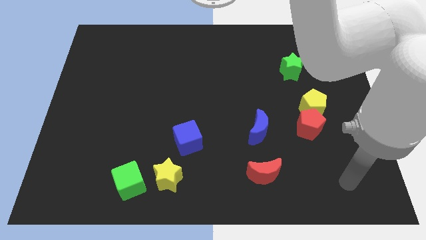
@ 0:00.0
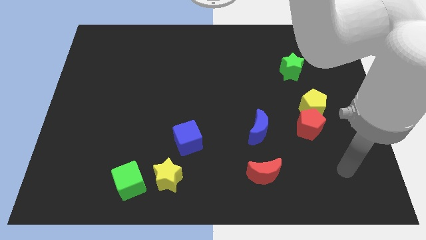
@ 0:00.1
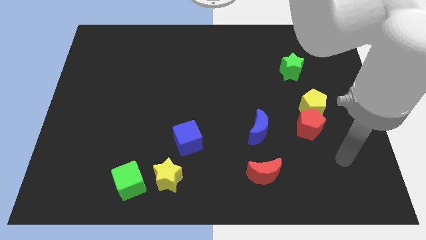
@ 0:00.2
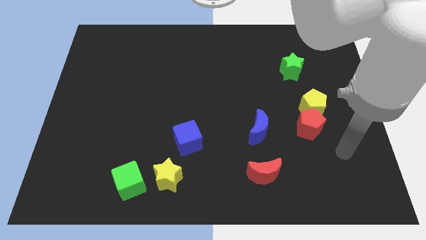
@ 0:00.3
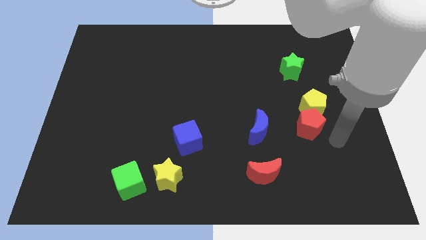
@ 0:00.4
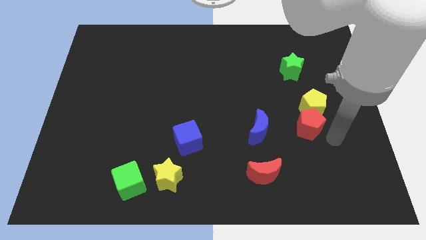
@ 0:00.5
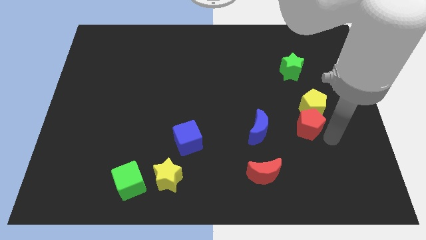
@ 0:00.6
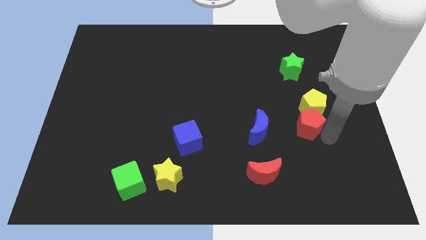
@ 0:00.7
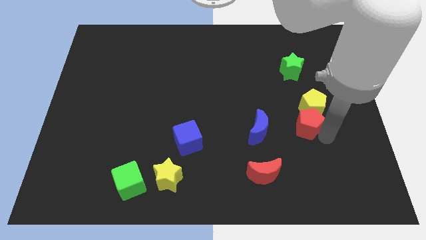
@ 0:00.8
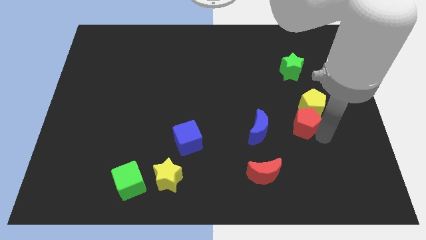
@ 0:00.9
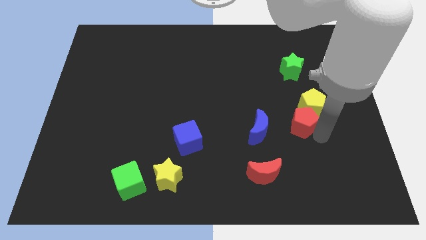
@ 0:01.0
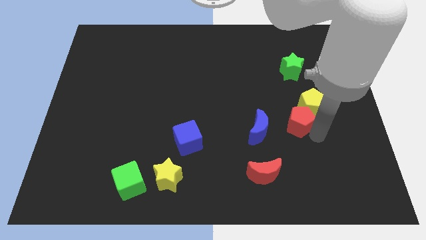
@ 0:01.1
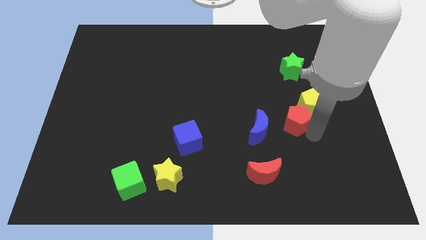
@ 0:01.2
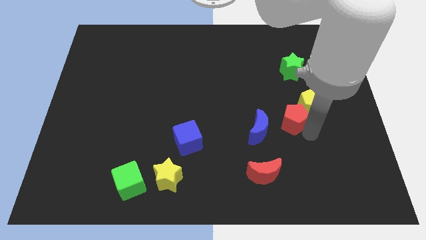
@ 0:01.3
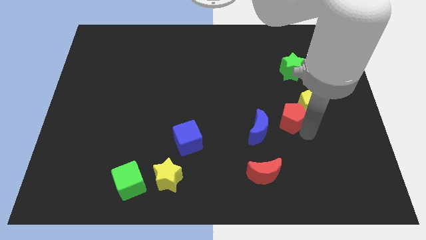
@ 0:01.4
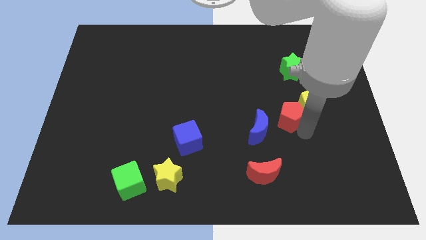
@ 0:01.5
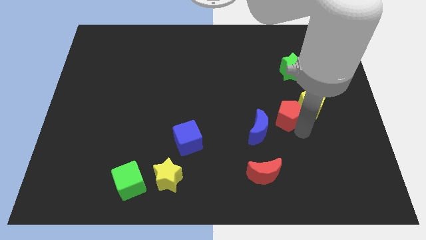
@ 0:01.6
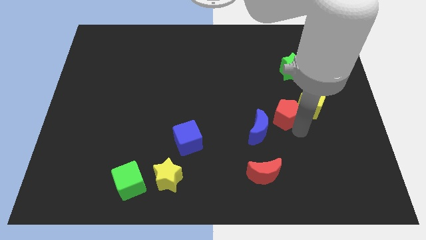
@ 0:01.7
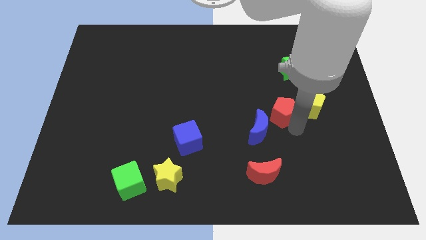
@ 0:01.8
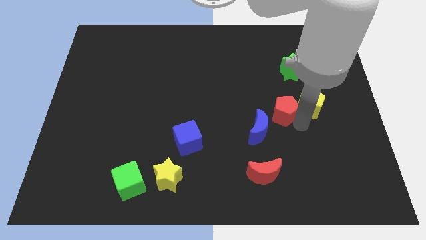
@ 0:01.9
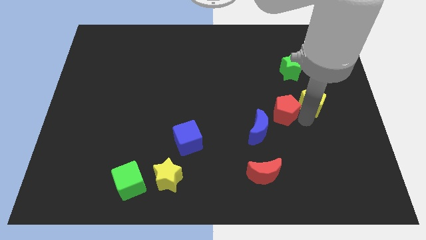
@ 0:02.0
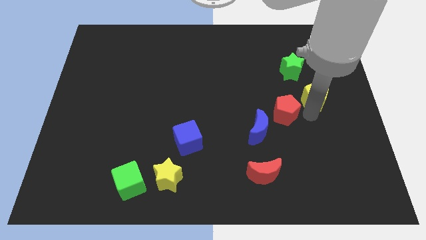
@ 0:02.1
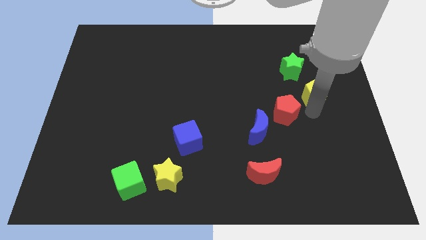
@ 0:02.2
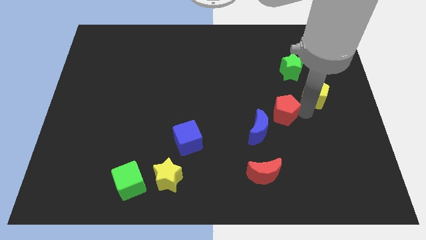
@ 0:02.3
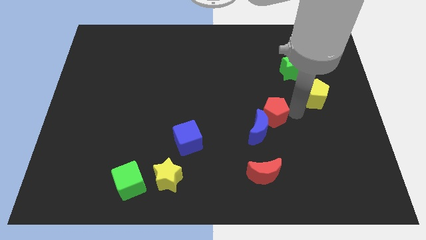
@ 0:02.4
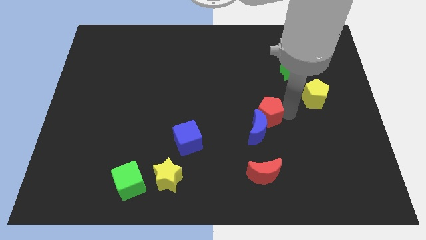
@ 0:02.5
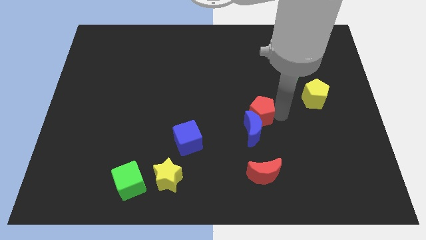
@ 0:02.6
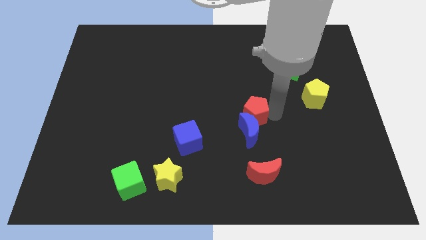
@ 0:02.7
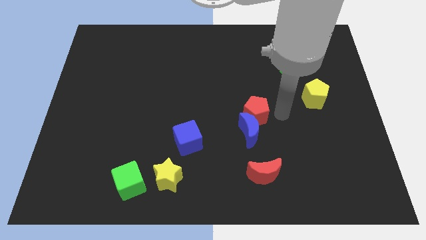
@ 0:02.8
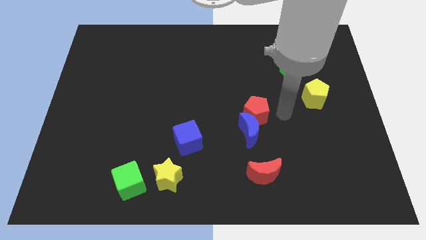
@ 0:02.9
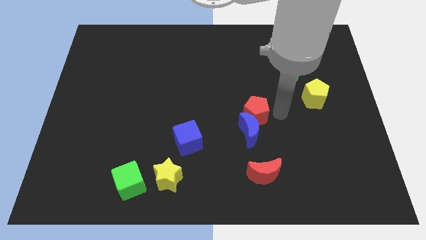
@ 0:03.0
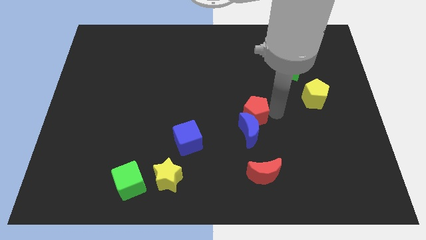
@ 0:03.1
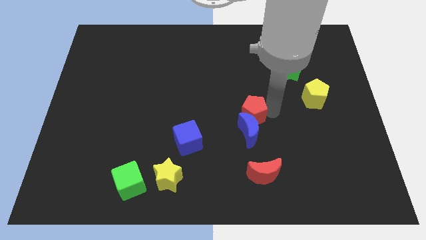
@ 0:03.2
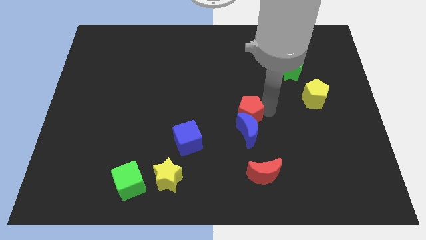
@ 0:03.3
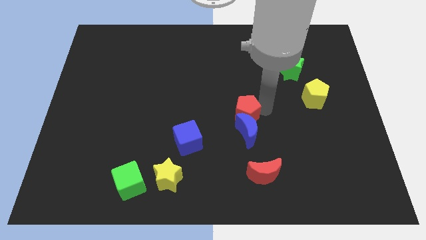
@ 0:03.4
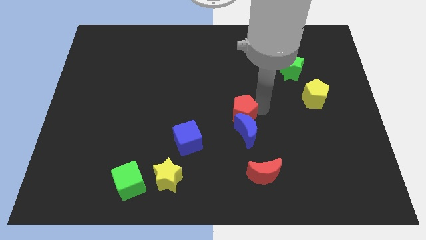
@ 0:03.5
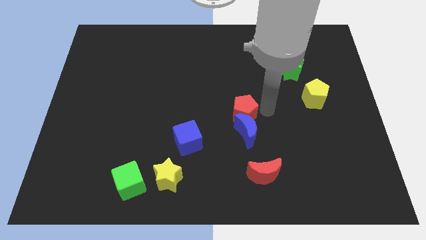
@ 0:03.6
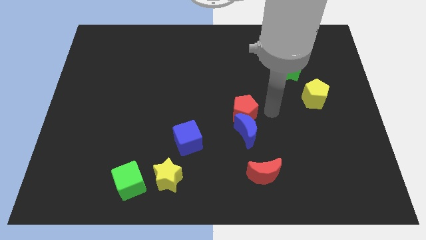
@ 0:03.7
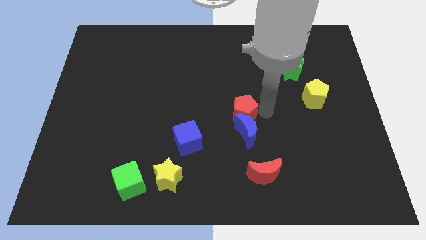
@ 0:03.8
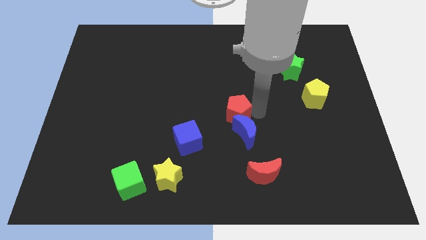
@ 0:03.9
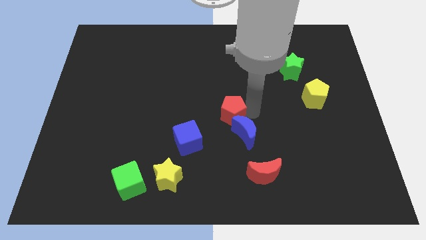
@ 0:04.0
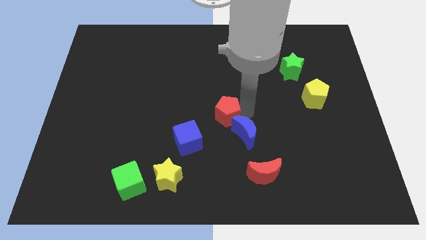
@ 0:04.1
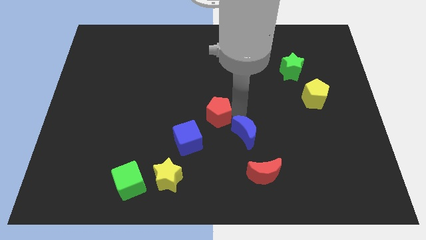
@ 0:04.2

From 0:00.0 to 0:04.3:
move the red pentagon left

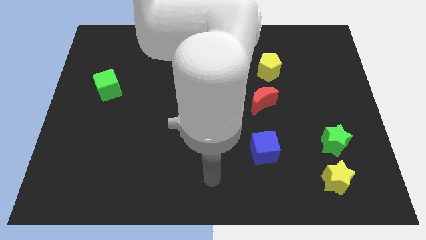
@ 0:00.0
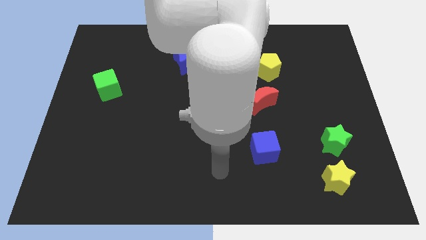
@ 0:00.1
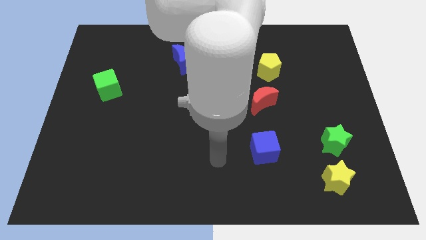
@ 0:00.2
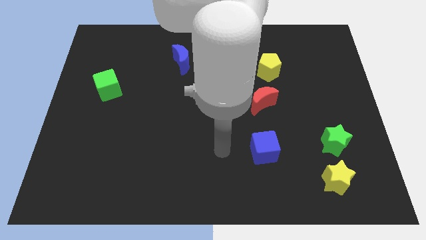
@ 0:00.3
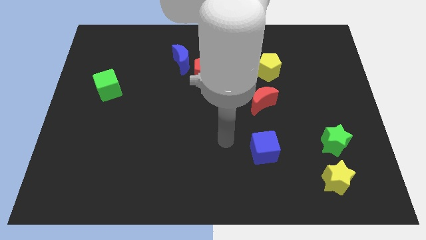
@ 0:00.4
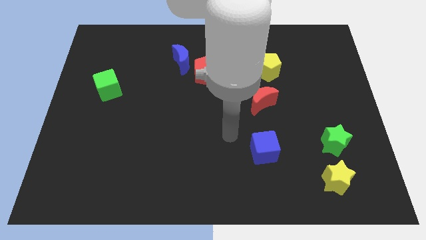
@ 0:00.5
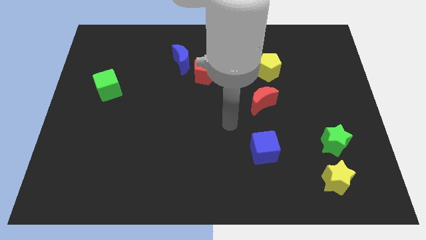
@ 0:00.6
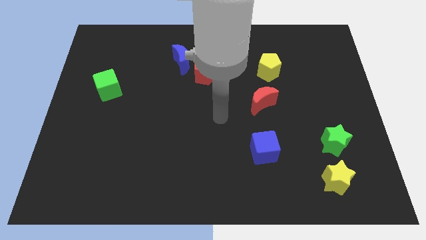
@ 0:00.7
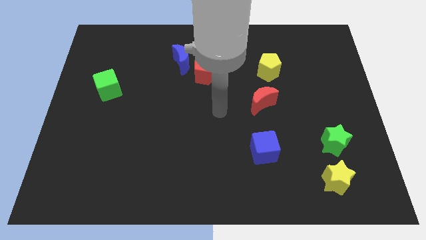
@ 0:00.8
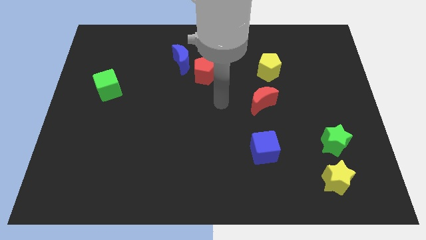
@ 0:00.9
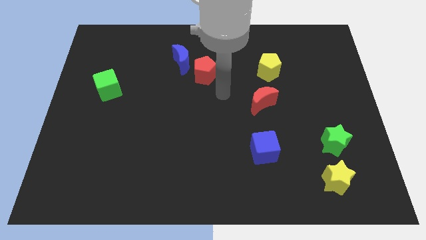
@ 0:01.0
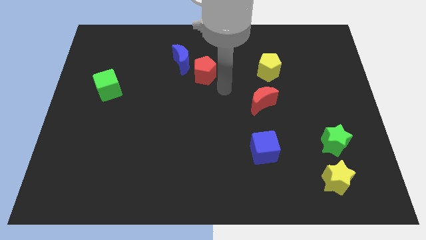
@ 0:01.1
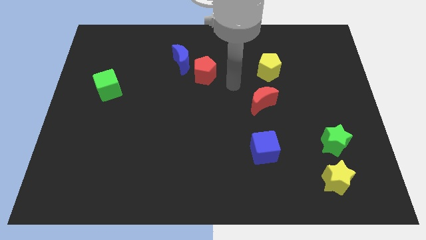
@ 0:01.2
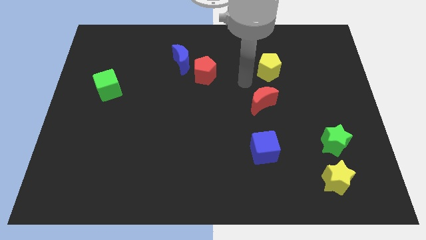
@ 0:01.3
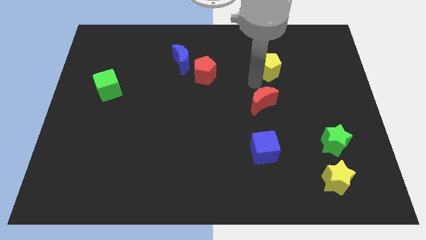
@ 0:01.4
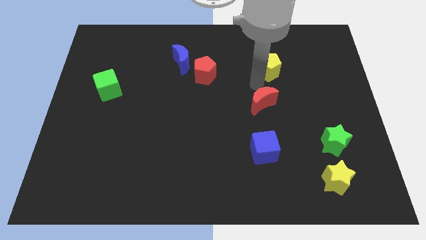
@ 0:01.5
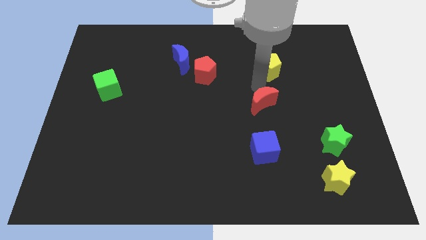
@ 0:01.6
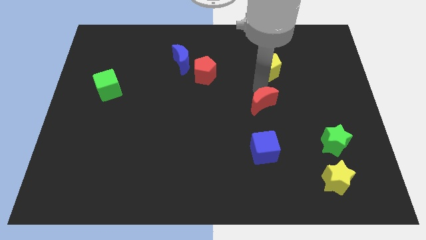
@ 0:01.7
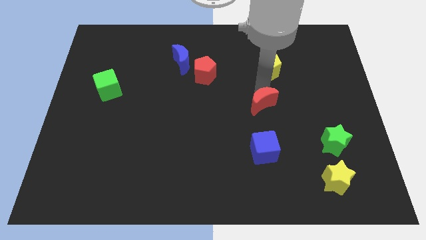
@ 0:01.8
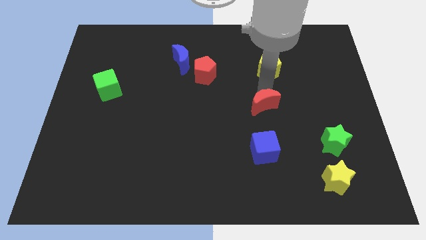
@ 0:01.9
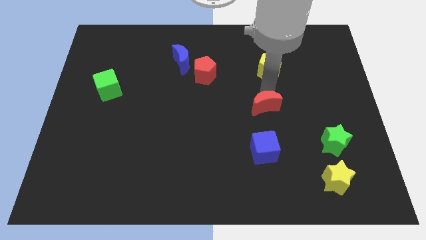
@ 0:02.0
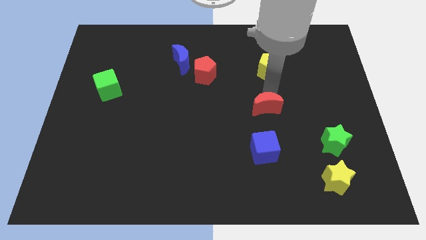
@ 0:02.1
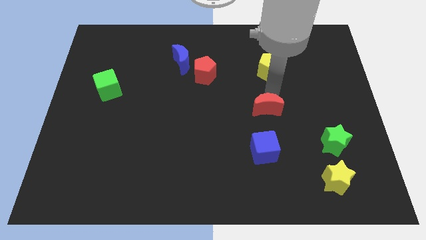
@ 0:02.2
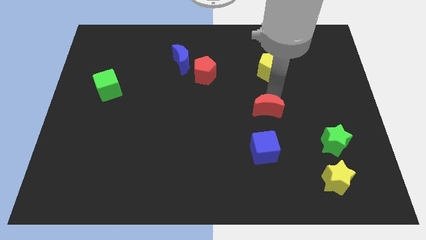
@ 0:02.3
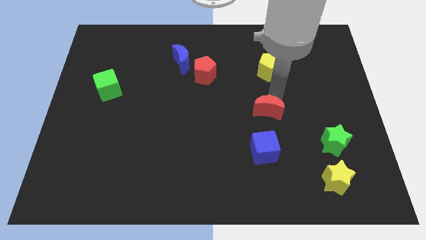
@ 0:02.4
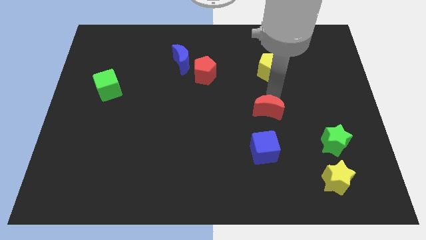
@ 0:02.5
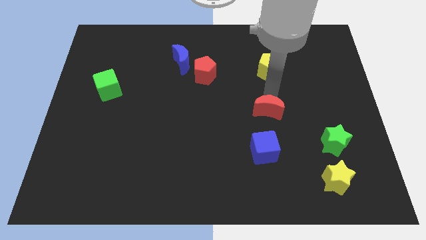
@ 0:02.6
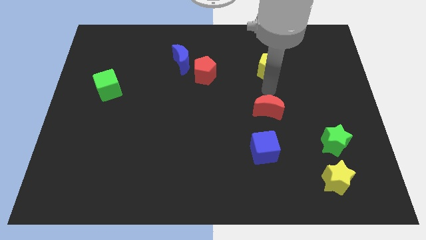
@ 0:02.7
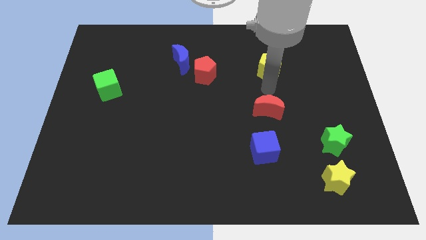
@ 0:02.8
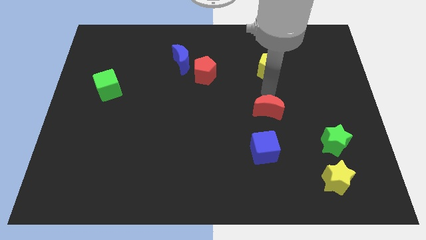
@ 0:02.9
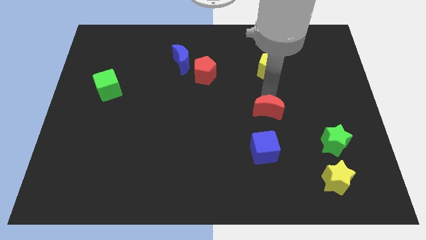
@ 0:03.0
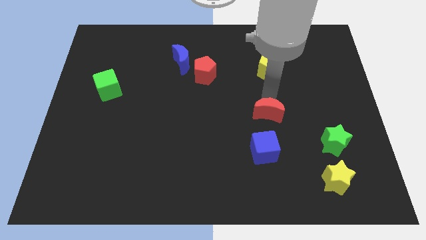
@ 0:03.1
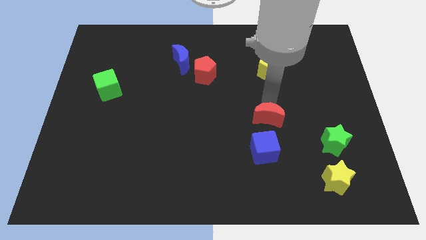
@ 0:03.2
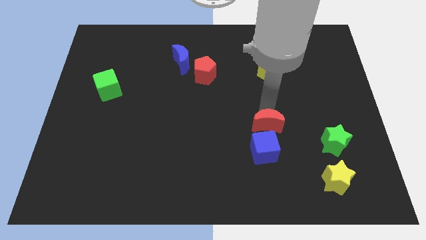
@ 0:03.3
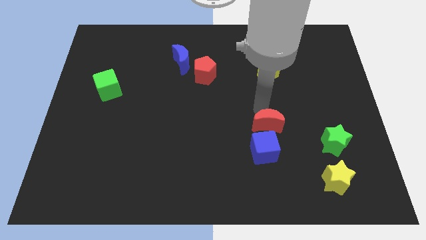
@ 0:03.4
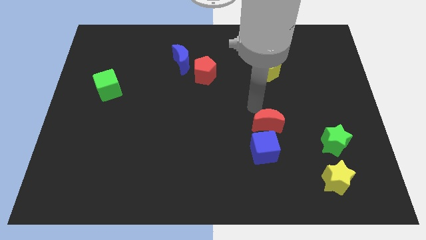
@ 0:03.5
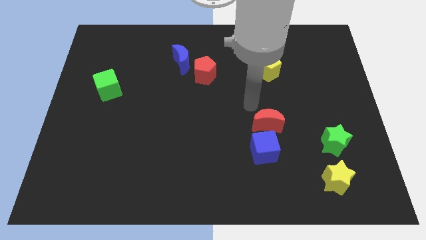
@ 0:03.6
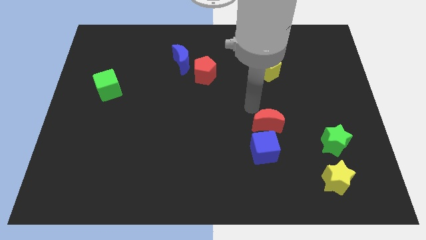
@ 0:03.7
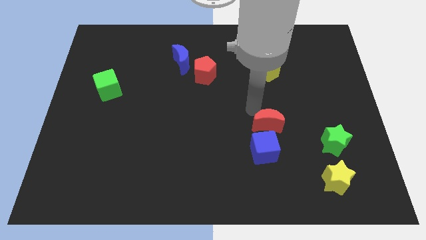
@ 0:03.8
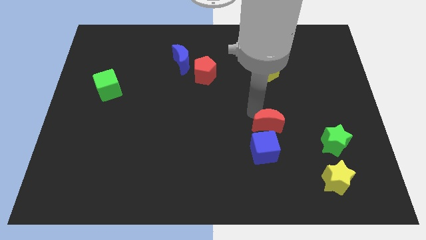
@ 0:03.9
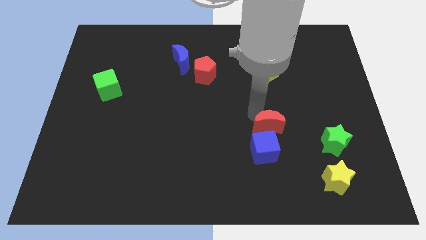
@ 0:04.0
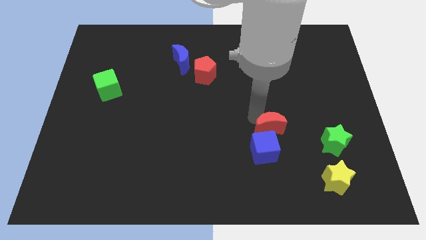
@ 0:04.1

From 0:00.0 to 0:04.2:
slightly move the red moon down
